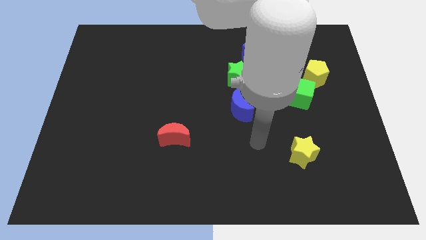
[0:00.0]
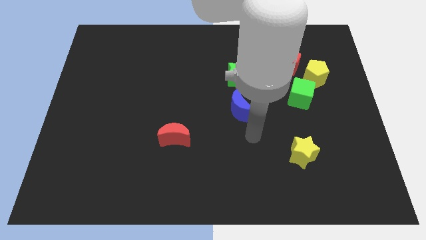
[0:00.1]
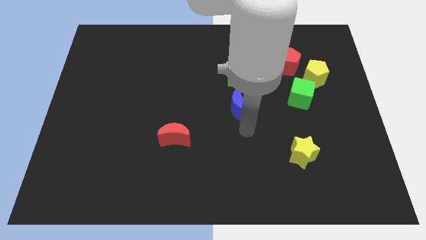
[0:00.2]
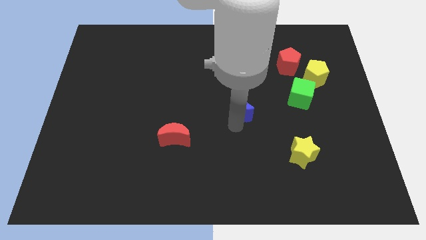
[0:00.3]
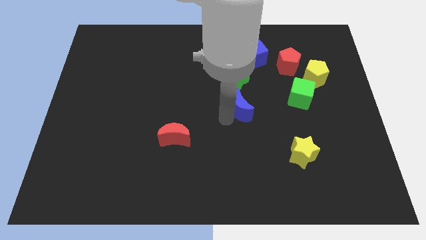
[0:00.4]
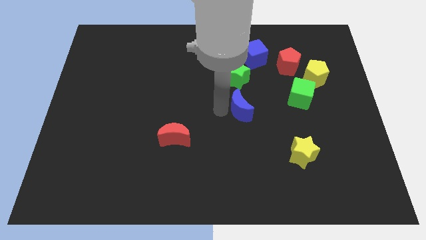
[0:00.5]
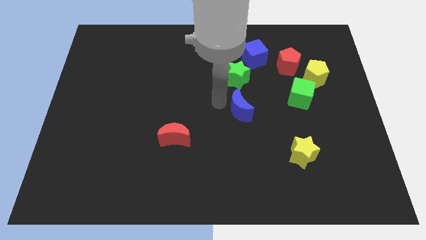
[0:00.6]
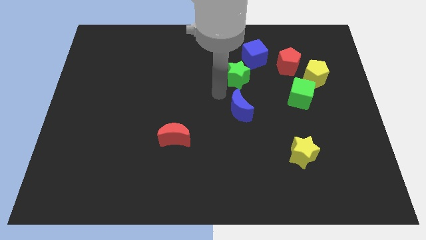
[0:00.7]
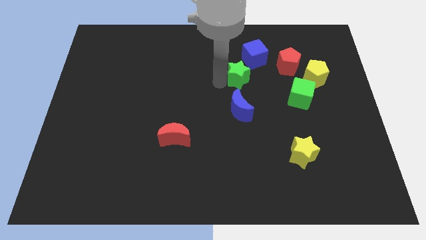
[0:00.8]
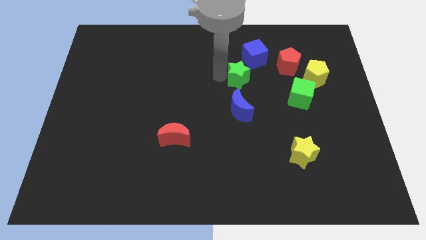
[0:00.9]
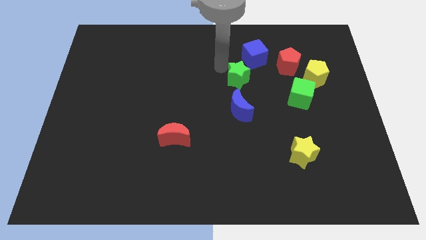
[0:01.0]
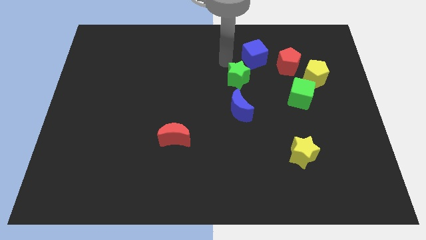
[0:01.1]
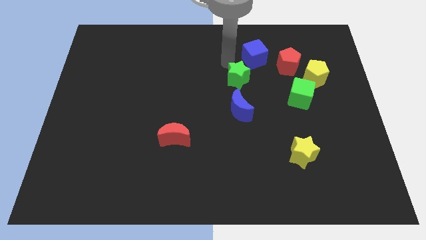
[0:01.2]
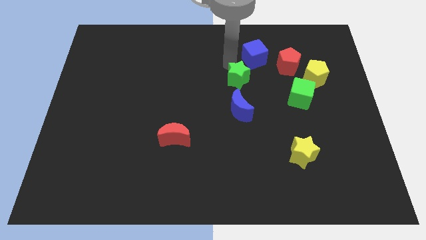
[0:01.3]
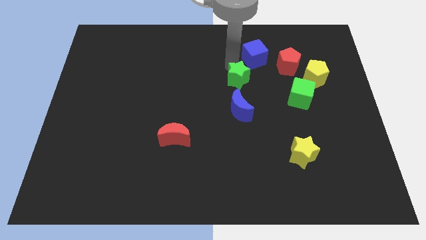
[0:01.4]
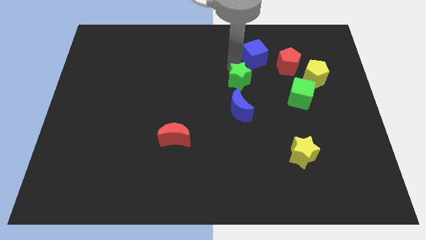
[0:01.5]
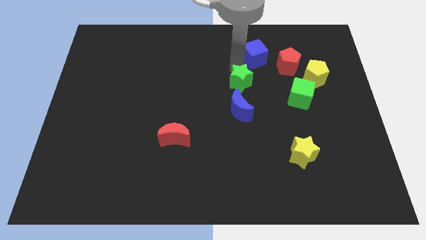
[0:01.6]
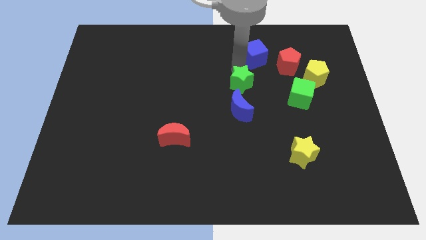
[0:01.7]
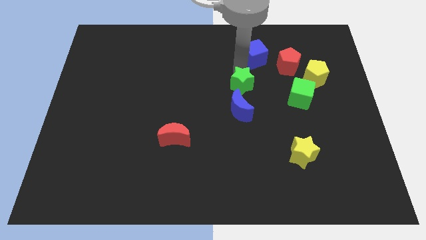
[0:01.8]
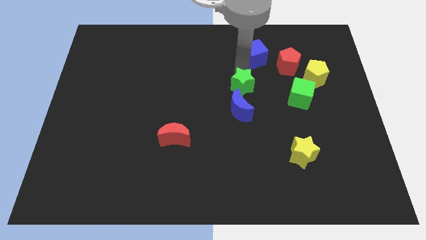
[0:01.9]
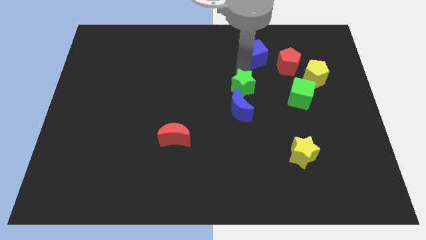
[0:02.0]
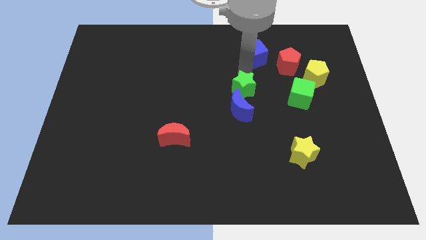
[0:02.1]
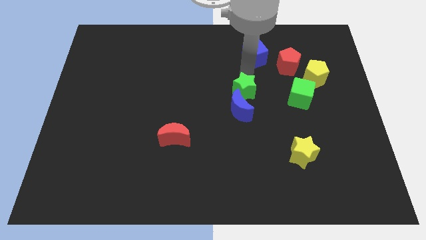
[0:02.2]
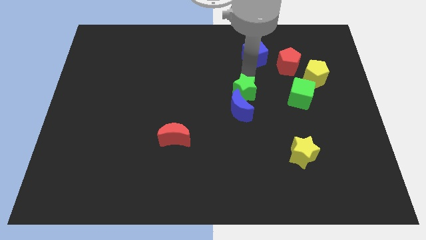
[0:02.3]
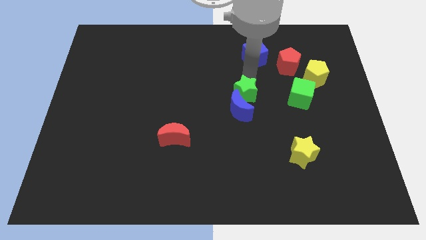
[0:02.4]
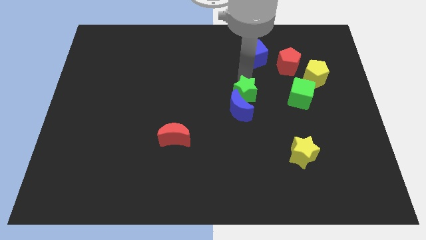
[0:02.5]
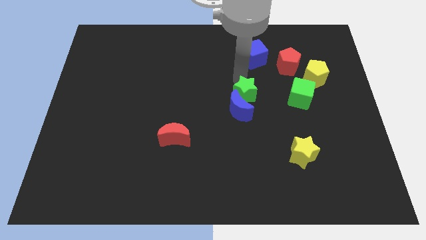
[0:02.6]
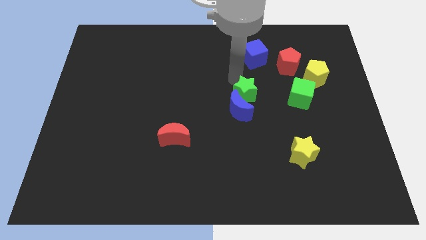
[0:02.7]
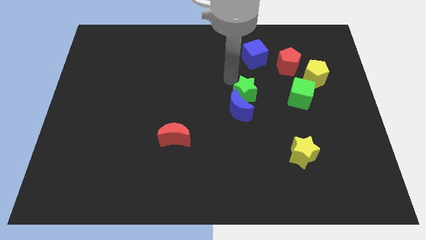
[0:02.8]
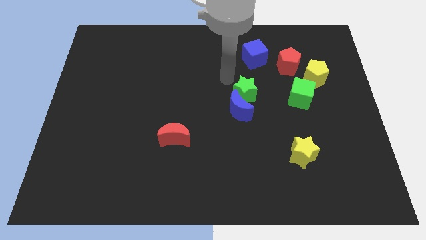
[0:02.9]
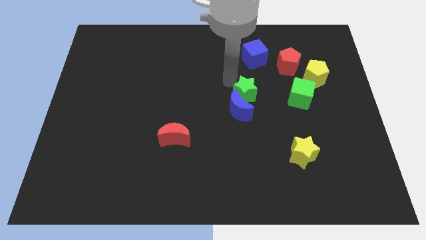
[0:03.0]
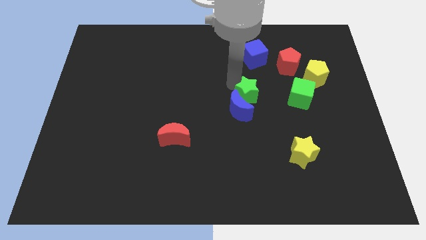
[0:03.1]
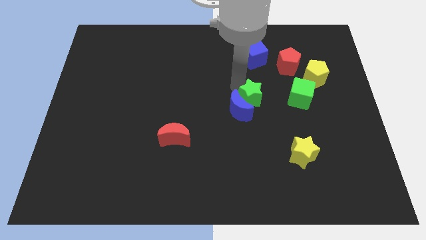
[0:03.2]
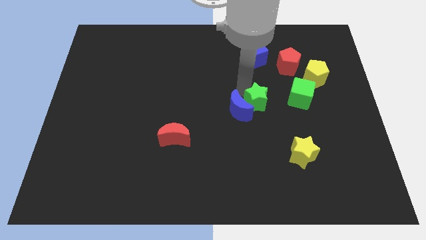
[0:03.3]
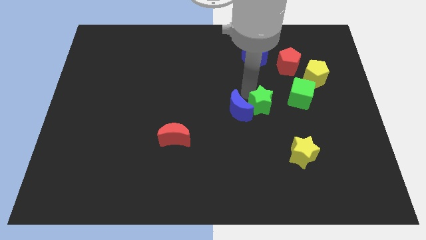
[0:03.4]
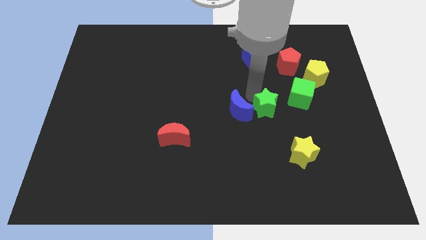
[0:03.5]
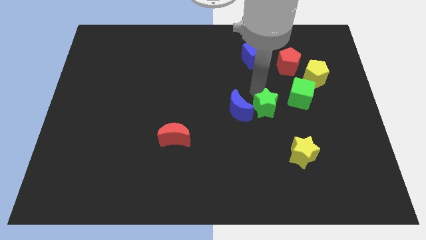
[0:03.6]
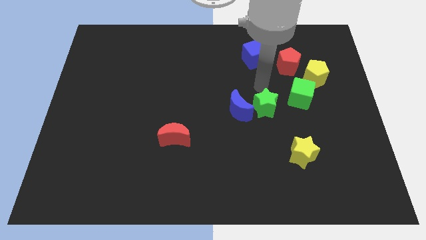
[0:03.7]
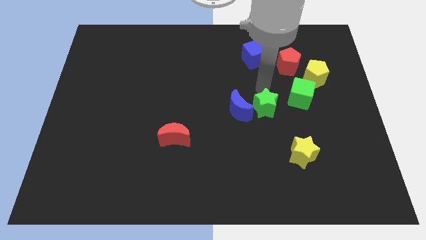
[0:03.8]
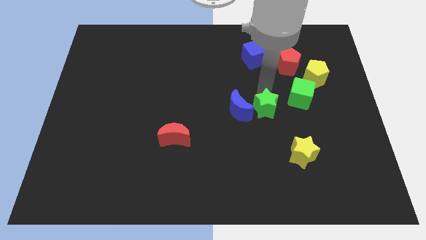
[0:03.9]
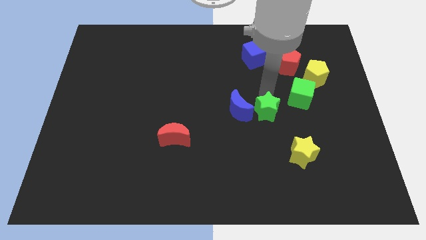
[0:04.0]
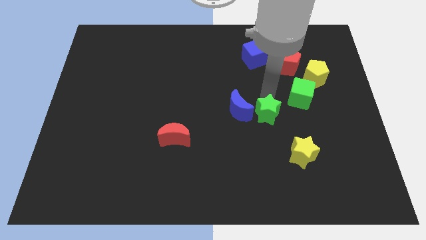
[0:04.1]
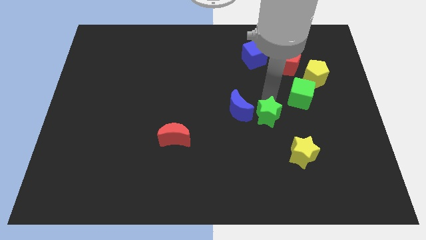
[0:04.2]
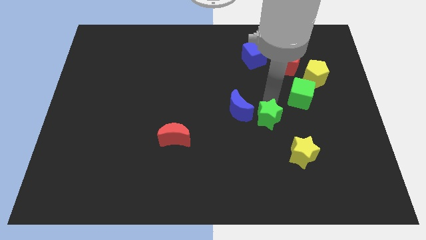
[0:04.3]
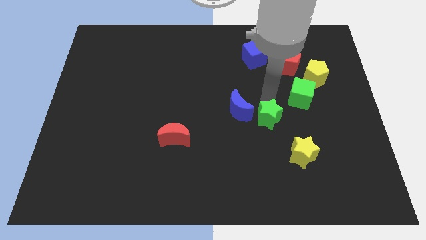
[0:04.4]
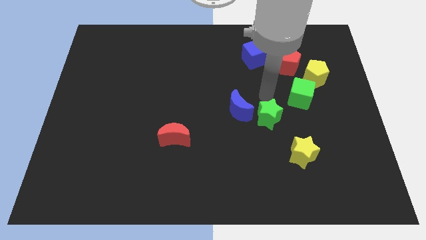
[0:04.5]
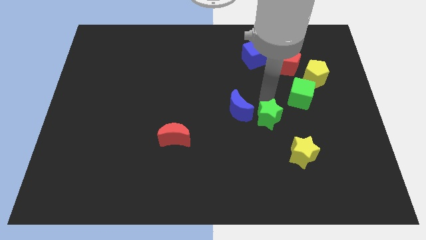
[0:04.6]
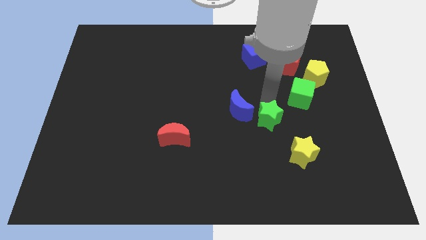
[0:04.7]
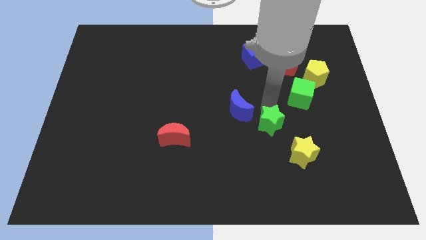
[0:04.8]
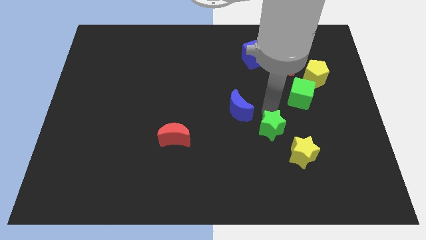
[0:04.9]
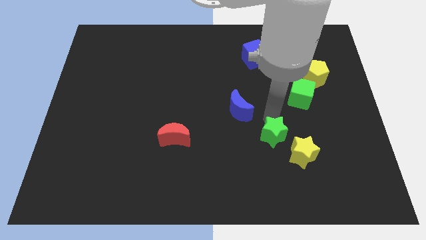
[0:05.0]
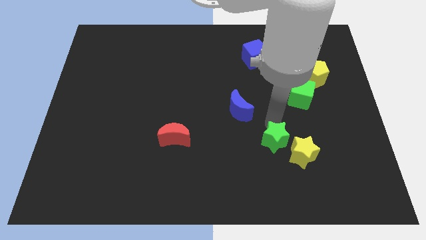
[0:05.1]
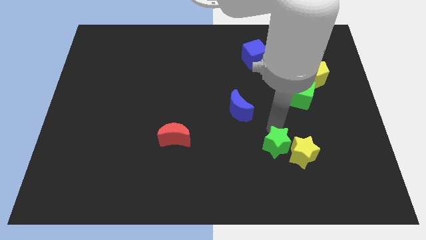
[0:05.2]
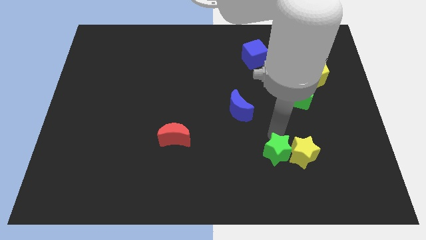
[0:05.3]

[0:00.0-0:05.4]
slide the green star to the bottom left side of the yellow star

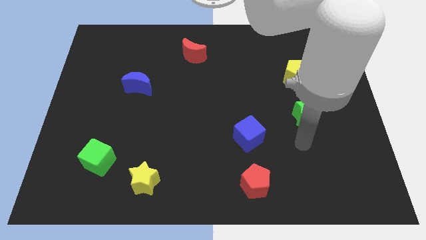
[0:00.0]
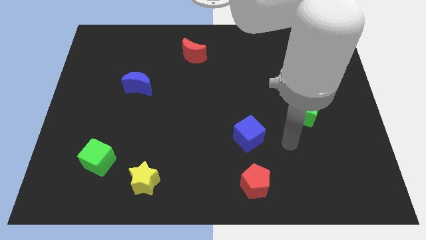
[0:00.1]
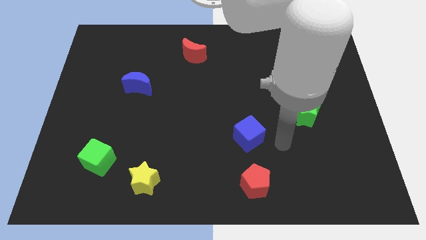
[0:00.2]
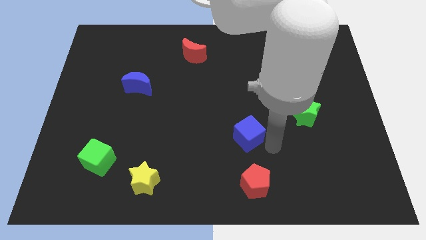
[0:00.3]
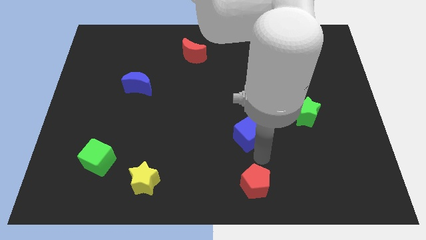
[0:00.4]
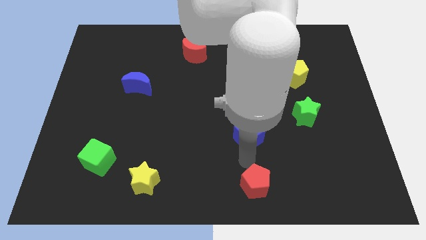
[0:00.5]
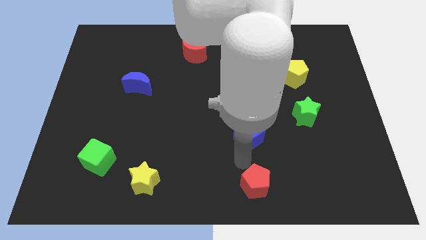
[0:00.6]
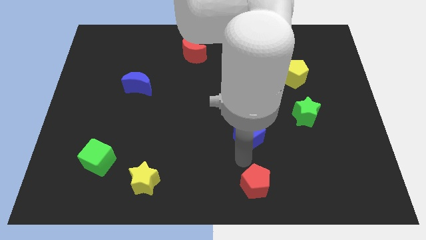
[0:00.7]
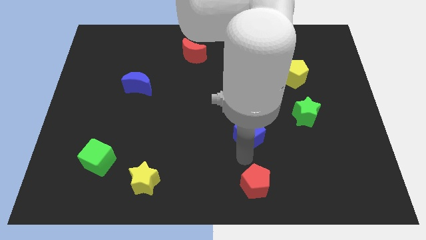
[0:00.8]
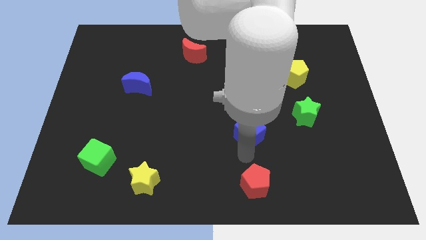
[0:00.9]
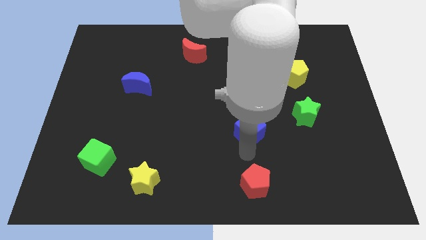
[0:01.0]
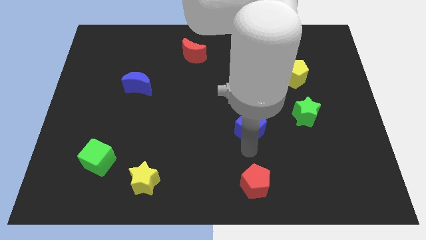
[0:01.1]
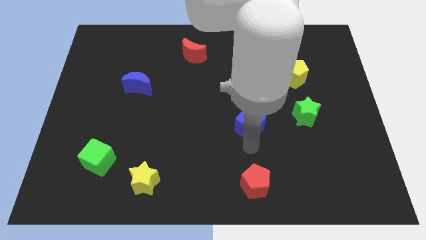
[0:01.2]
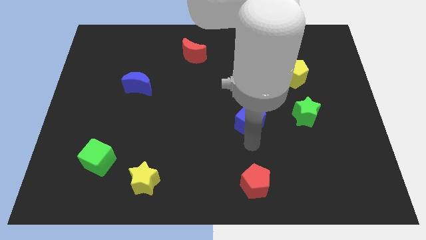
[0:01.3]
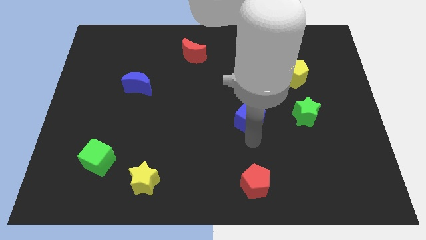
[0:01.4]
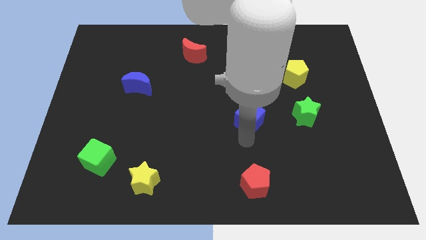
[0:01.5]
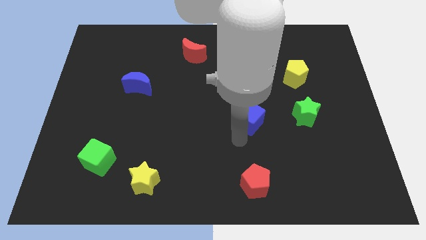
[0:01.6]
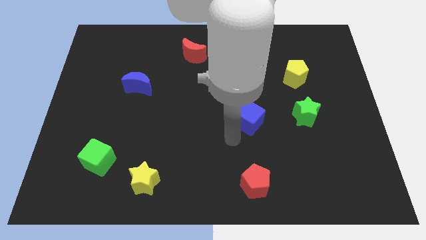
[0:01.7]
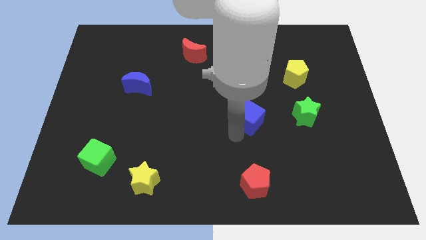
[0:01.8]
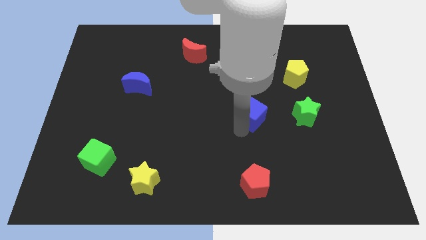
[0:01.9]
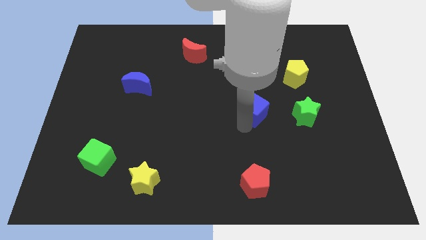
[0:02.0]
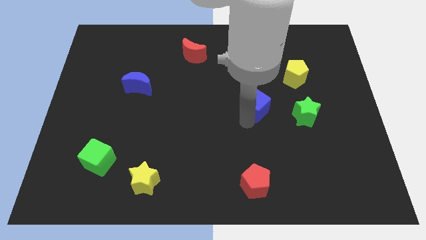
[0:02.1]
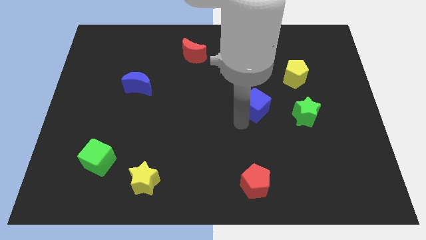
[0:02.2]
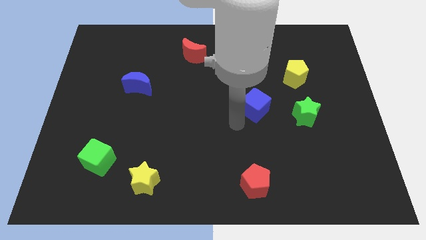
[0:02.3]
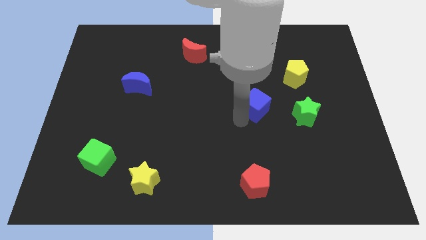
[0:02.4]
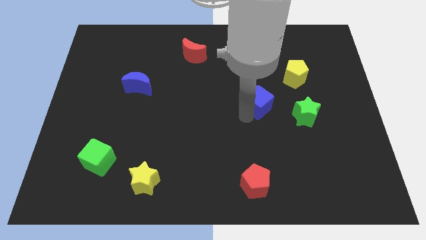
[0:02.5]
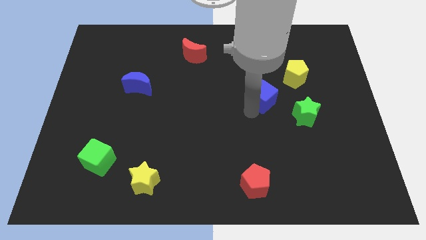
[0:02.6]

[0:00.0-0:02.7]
slide the blue cube diagonally down and to the left of the yellow pentagon

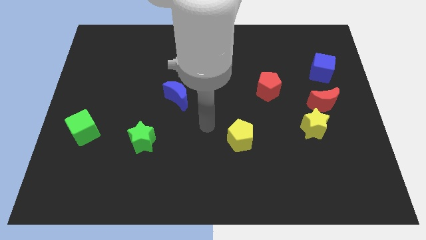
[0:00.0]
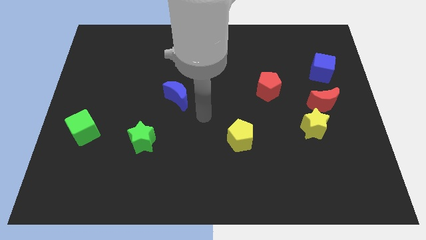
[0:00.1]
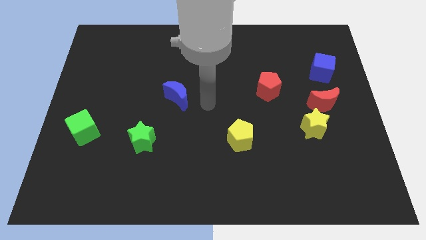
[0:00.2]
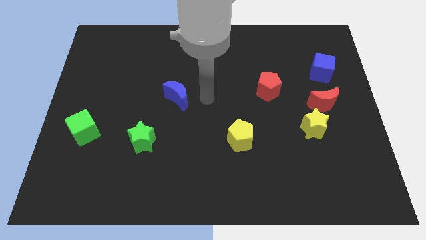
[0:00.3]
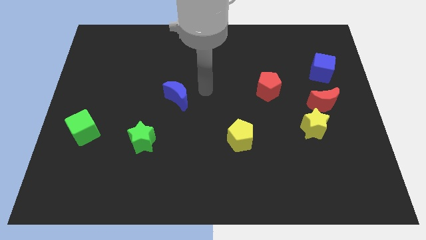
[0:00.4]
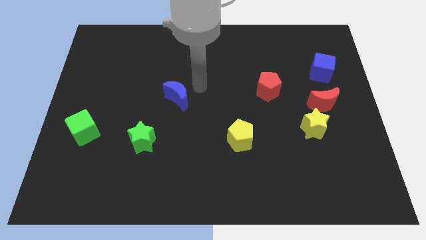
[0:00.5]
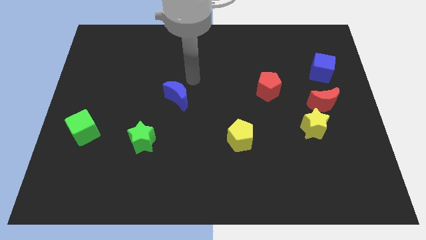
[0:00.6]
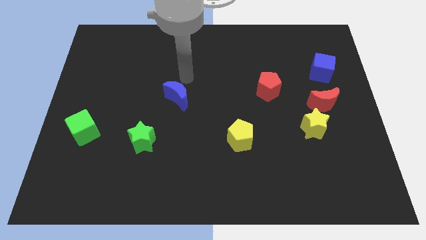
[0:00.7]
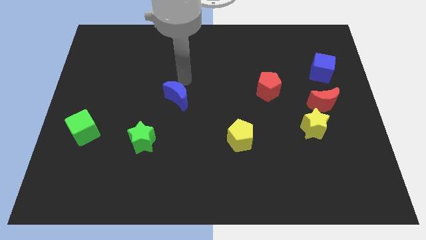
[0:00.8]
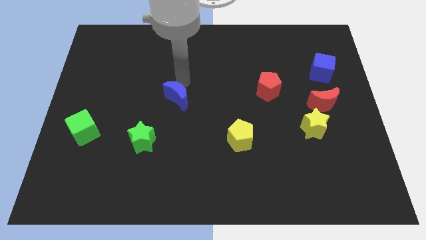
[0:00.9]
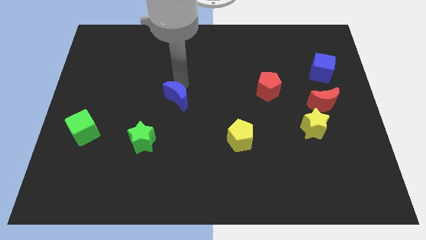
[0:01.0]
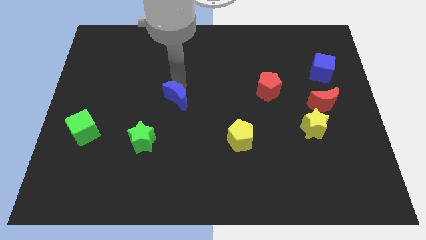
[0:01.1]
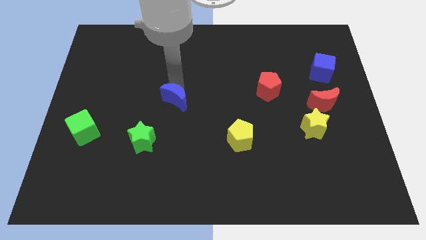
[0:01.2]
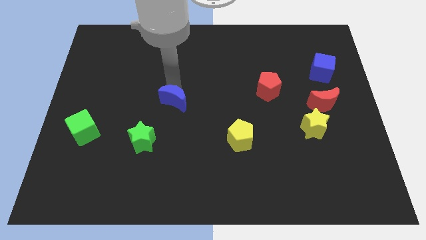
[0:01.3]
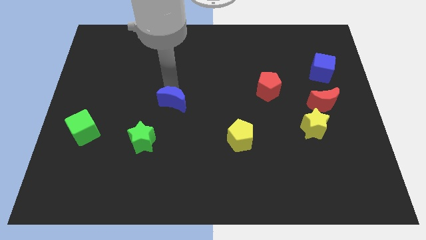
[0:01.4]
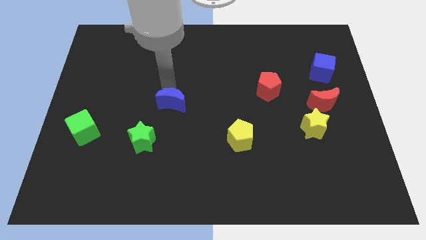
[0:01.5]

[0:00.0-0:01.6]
move the blue moon diagonally up and to the right of the green star
